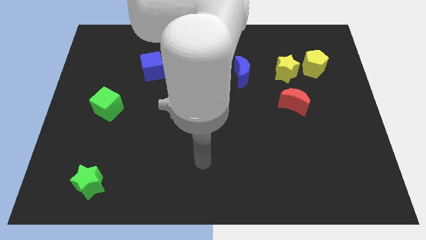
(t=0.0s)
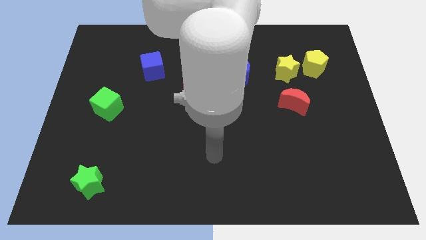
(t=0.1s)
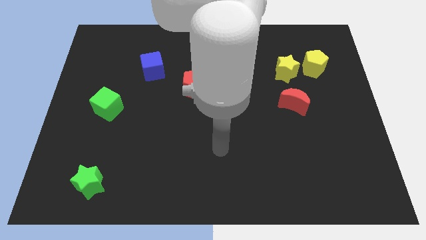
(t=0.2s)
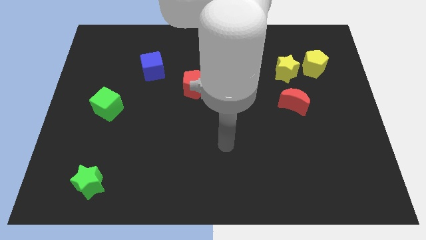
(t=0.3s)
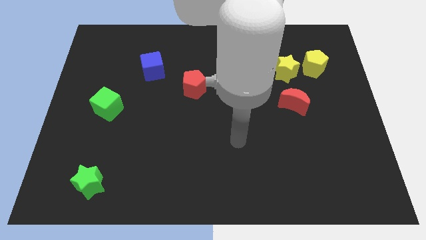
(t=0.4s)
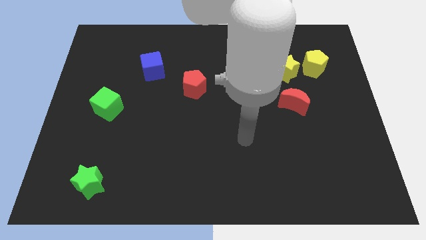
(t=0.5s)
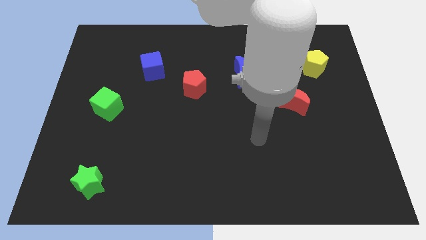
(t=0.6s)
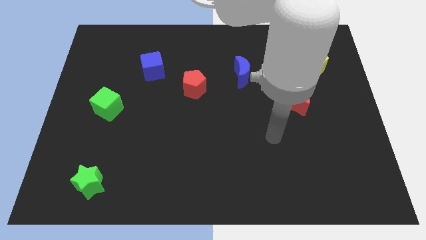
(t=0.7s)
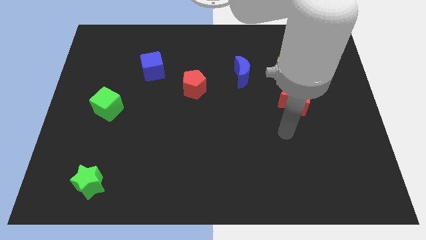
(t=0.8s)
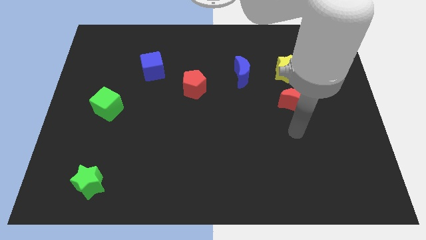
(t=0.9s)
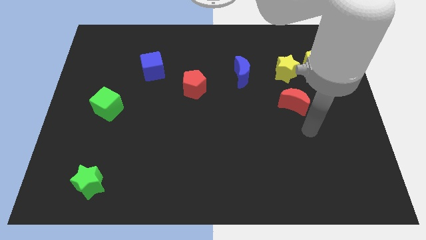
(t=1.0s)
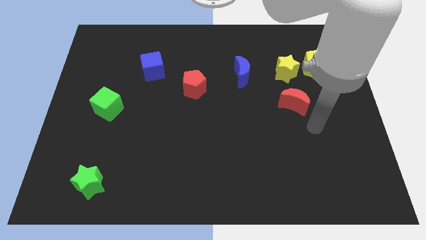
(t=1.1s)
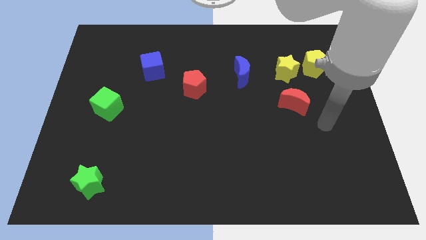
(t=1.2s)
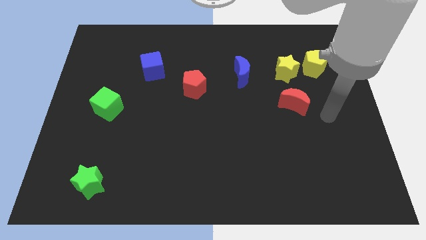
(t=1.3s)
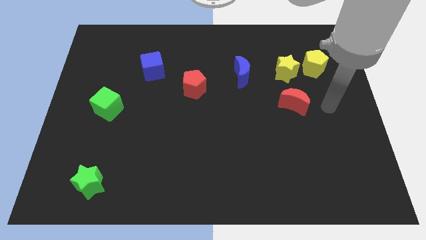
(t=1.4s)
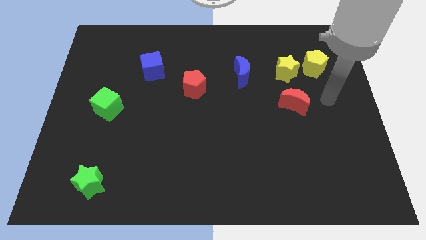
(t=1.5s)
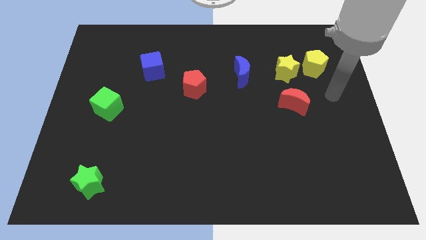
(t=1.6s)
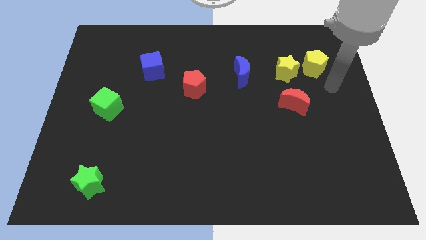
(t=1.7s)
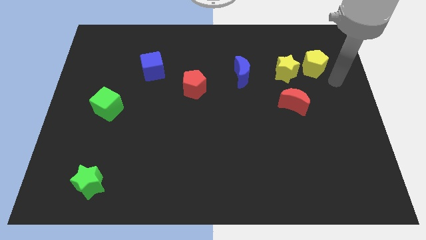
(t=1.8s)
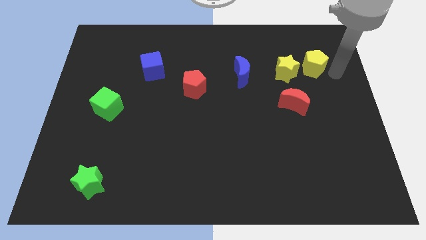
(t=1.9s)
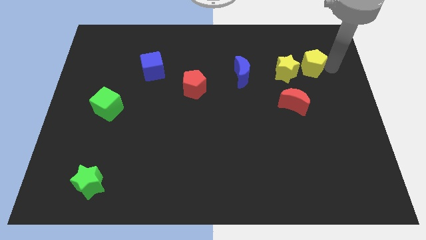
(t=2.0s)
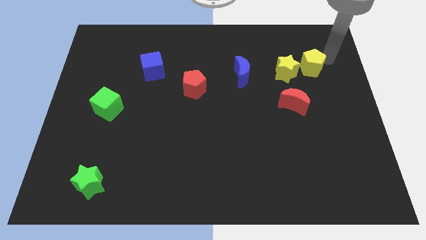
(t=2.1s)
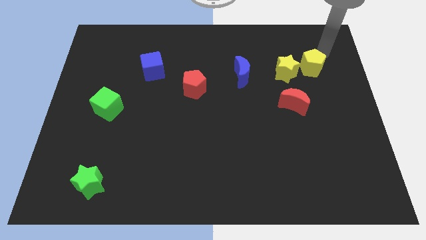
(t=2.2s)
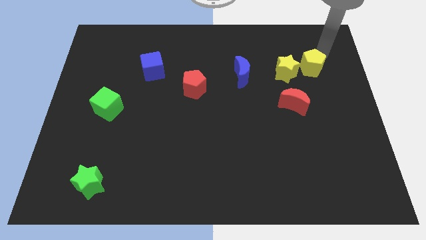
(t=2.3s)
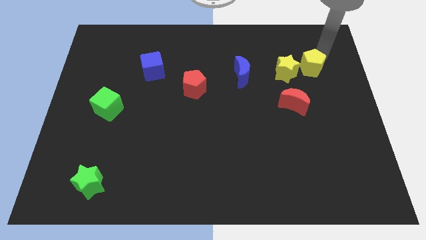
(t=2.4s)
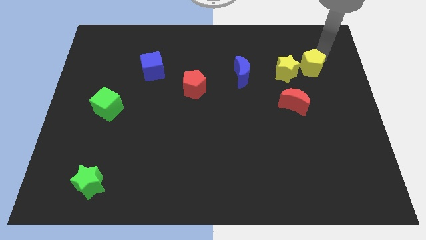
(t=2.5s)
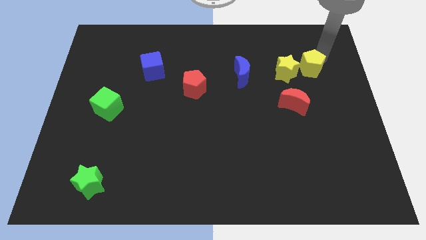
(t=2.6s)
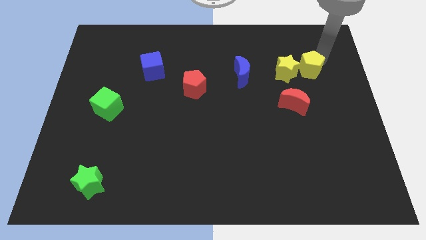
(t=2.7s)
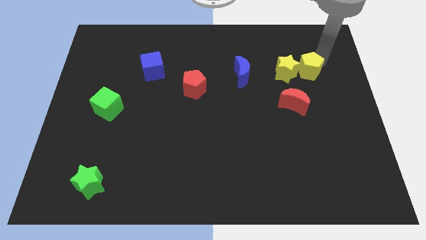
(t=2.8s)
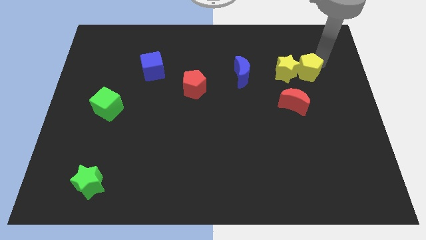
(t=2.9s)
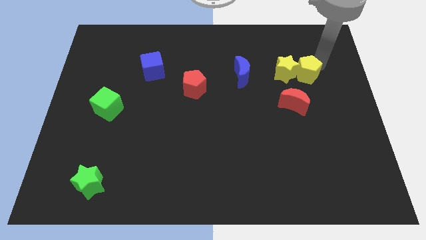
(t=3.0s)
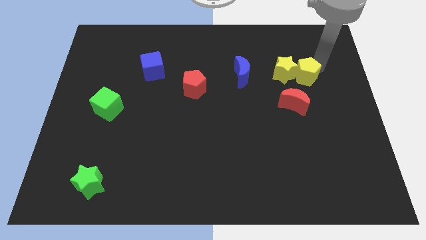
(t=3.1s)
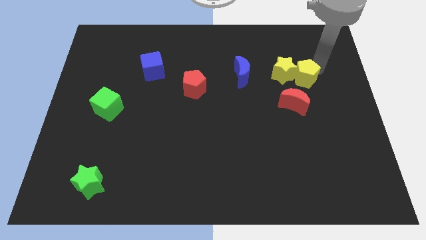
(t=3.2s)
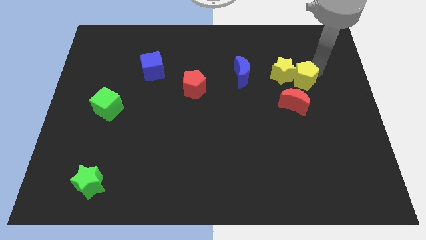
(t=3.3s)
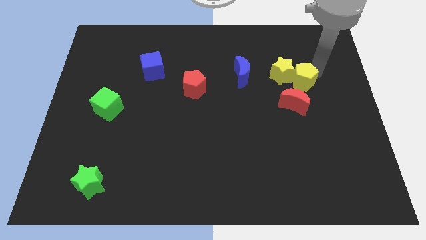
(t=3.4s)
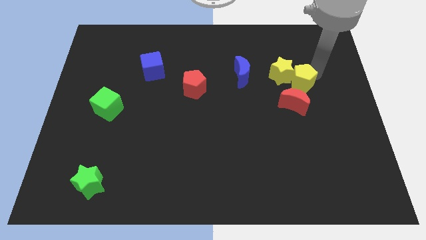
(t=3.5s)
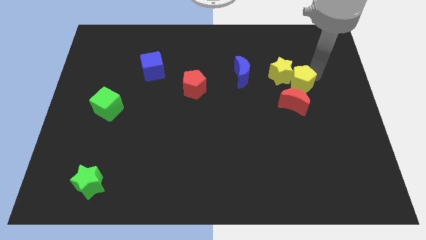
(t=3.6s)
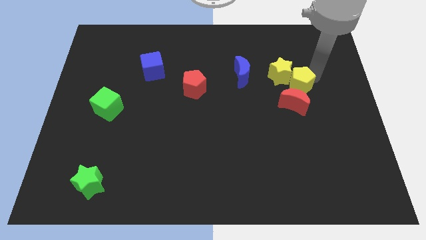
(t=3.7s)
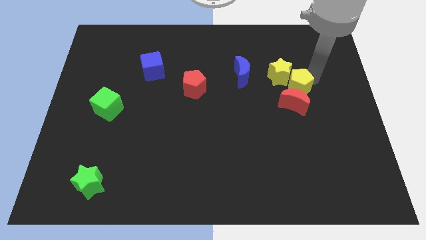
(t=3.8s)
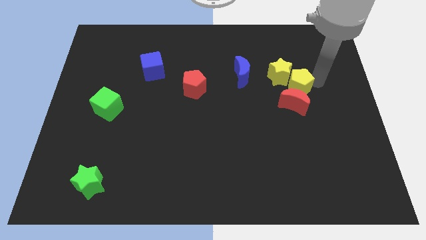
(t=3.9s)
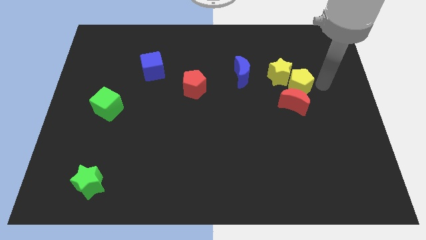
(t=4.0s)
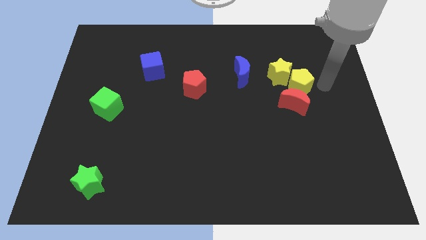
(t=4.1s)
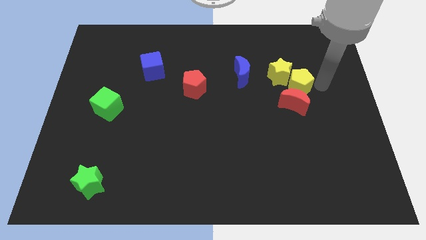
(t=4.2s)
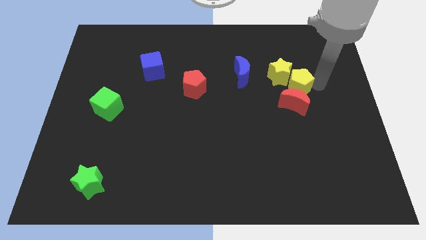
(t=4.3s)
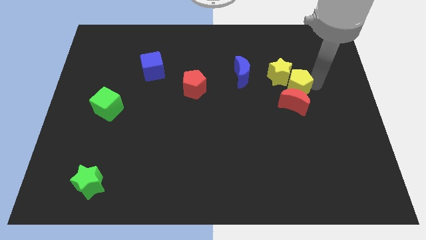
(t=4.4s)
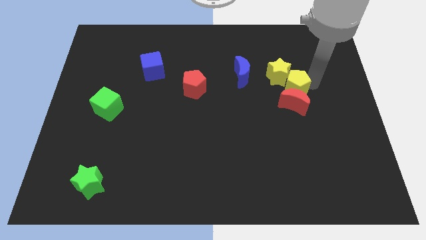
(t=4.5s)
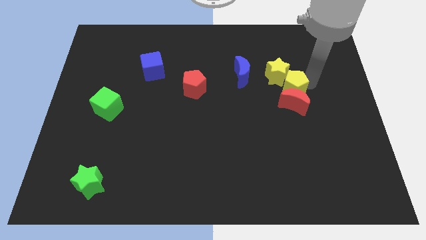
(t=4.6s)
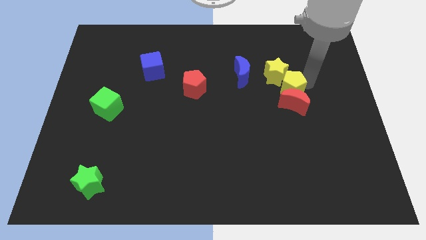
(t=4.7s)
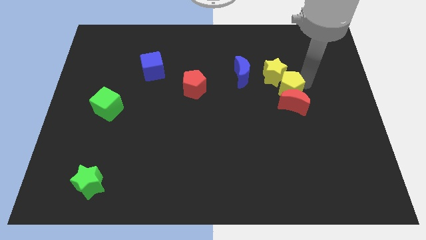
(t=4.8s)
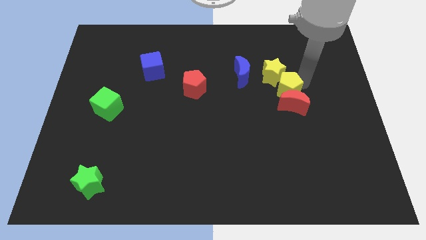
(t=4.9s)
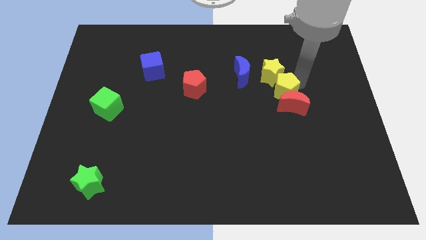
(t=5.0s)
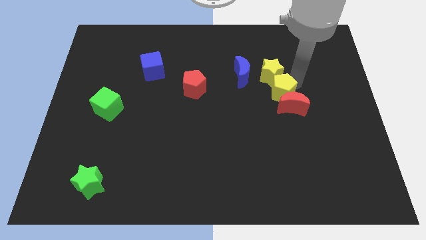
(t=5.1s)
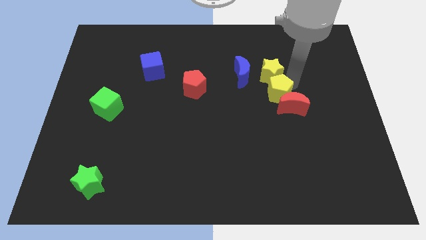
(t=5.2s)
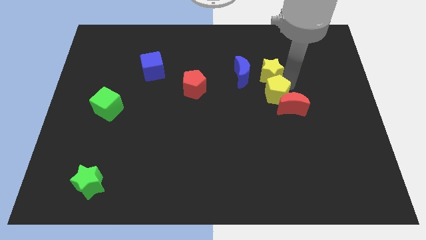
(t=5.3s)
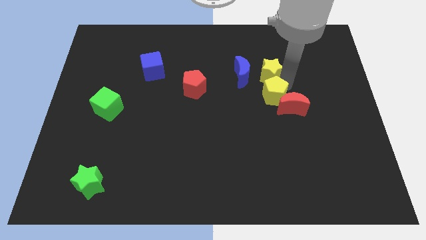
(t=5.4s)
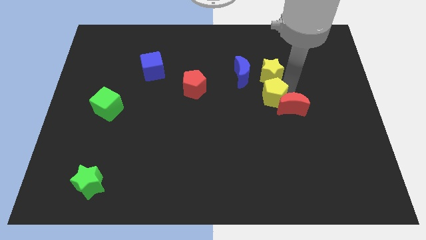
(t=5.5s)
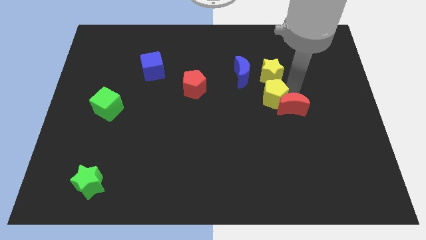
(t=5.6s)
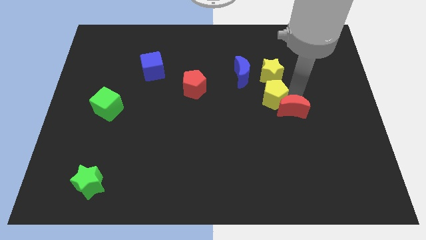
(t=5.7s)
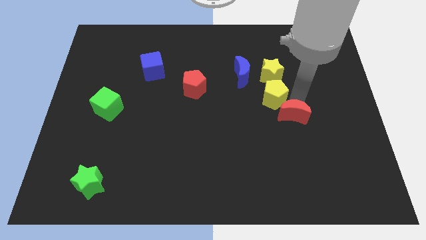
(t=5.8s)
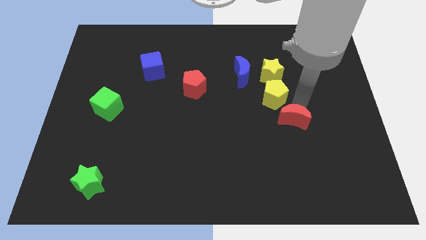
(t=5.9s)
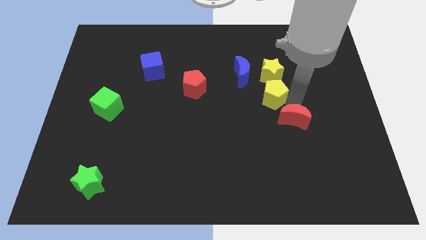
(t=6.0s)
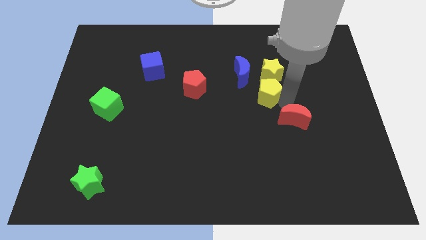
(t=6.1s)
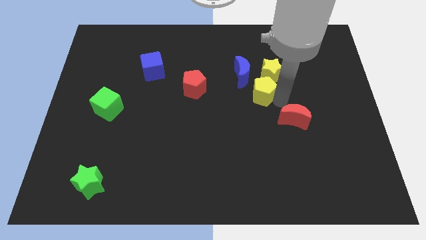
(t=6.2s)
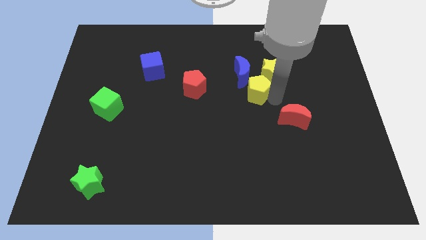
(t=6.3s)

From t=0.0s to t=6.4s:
move the yellow pentagon right of the red pentagon

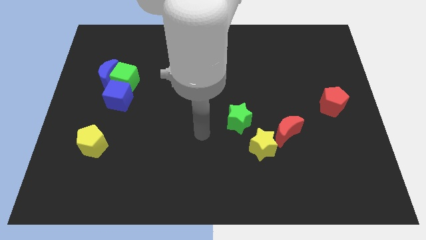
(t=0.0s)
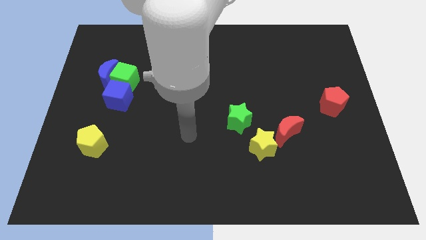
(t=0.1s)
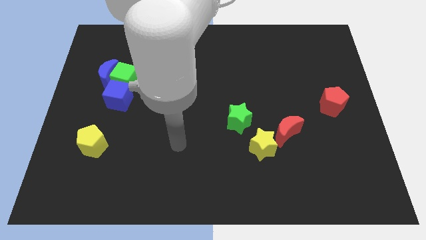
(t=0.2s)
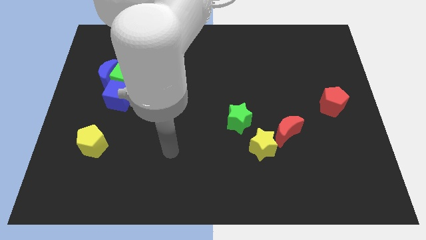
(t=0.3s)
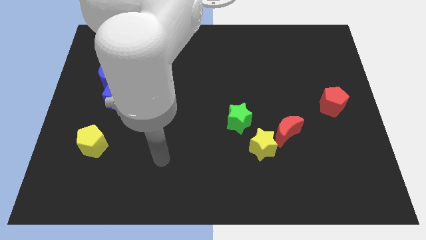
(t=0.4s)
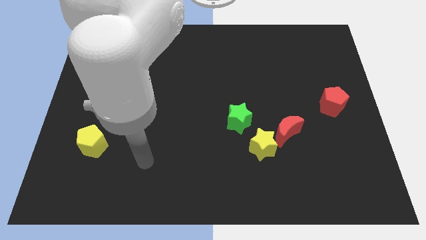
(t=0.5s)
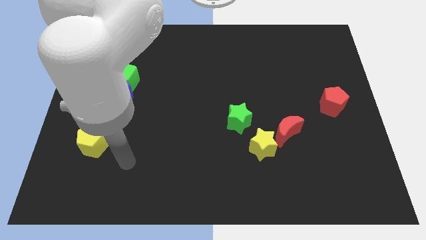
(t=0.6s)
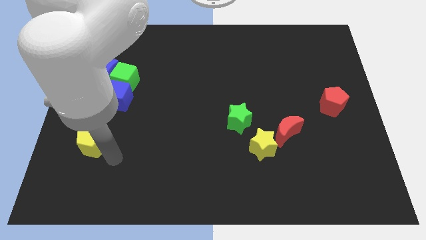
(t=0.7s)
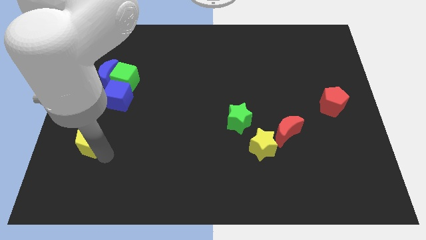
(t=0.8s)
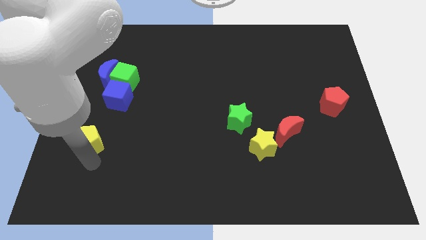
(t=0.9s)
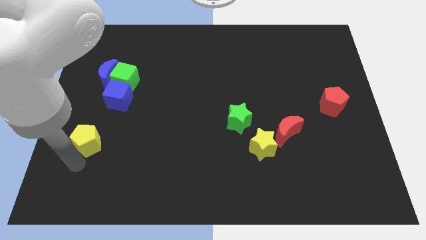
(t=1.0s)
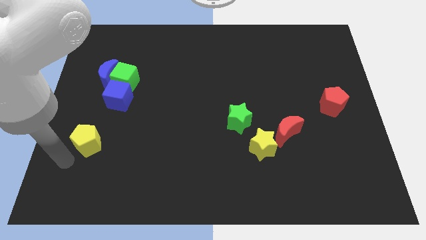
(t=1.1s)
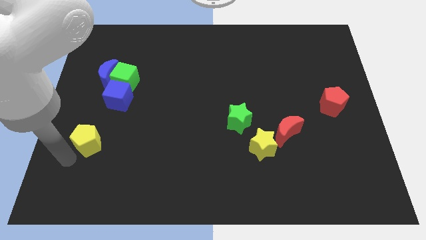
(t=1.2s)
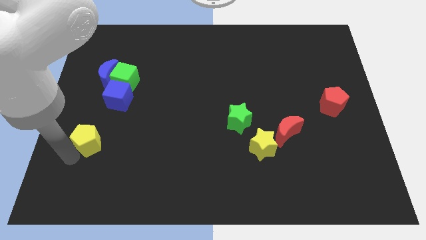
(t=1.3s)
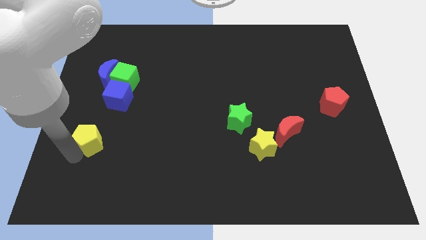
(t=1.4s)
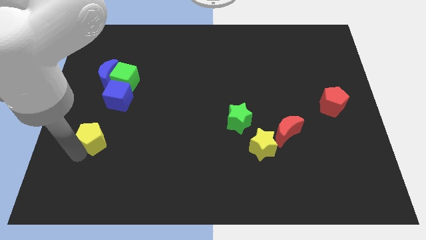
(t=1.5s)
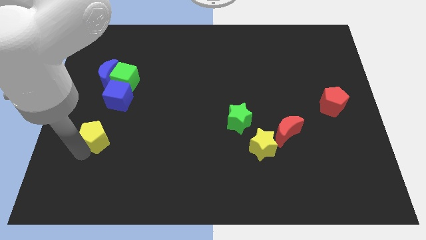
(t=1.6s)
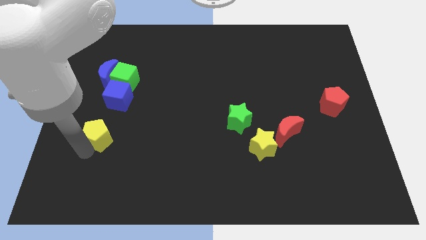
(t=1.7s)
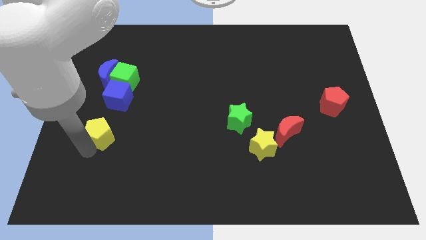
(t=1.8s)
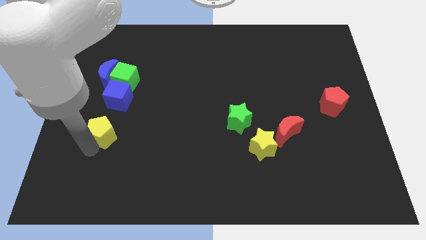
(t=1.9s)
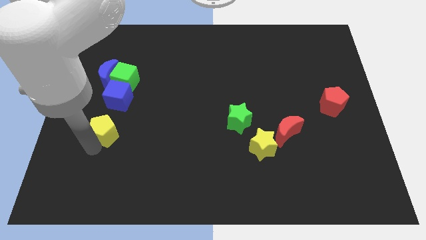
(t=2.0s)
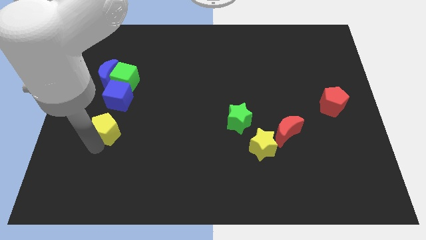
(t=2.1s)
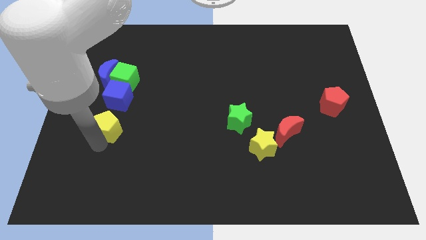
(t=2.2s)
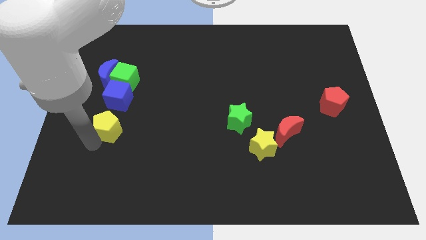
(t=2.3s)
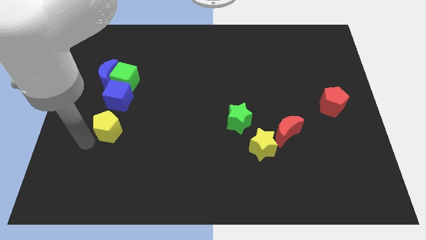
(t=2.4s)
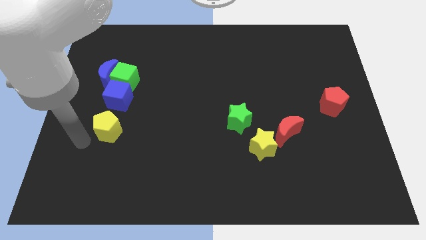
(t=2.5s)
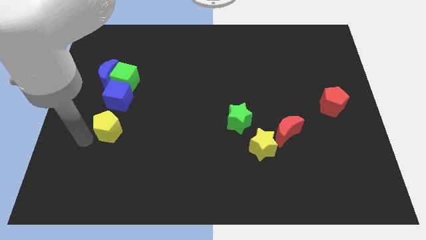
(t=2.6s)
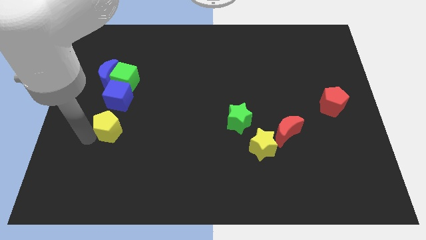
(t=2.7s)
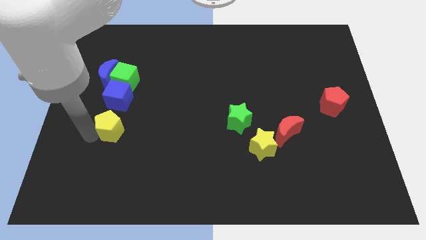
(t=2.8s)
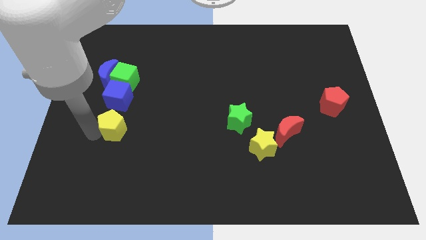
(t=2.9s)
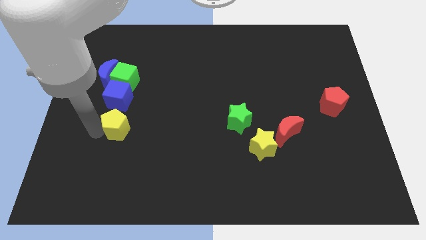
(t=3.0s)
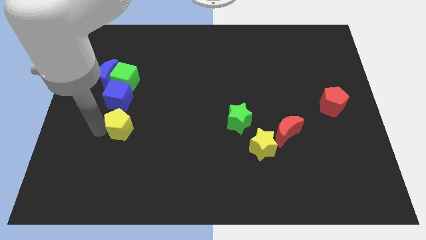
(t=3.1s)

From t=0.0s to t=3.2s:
put the yellow pentagon to the bottom right side of the blue cube
